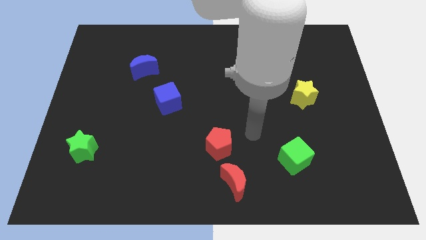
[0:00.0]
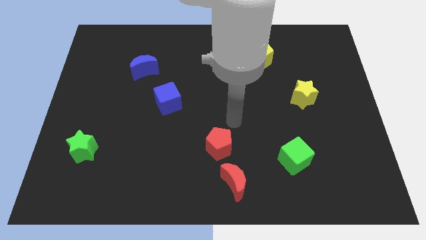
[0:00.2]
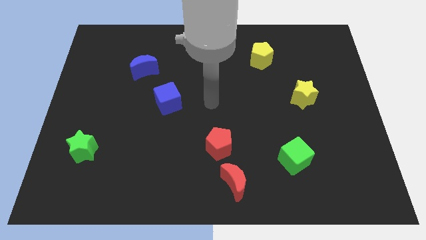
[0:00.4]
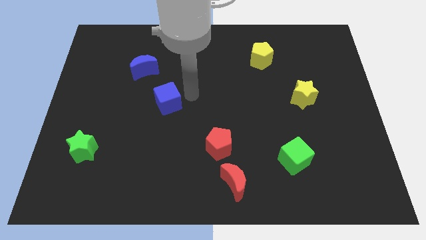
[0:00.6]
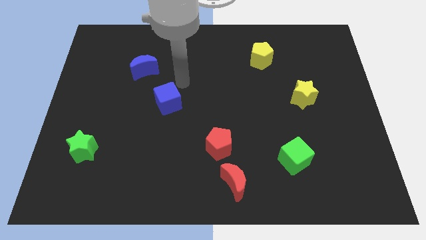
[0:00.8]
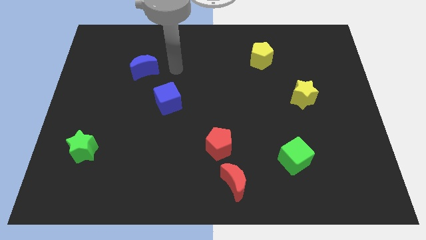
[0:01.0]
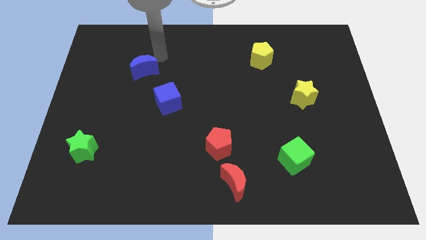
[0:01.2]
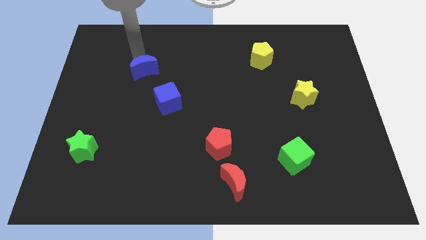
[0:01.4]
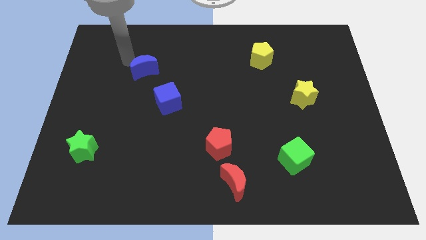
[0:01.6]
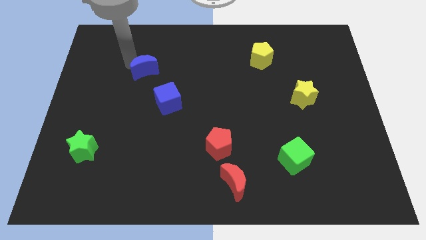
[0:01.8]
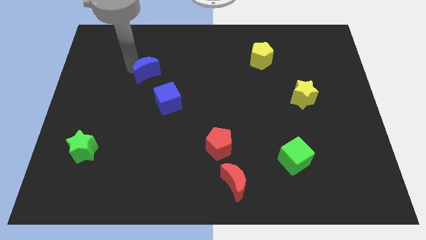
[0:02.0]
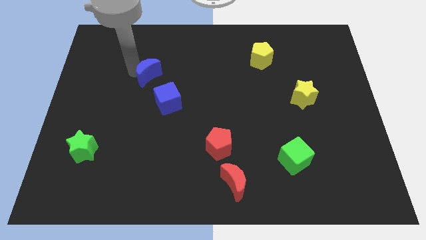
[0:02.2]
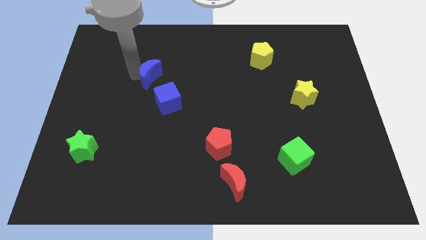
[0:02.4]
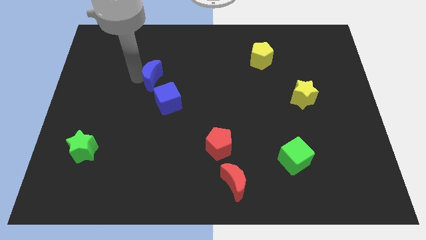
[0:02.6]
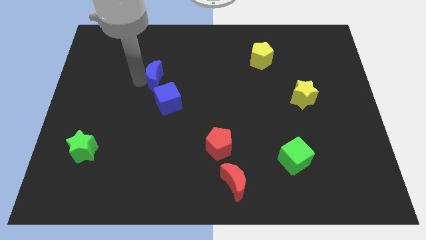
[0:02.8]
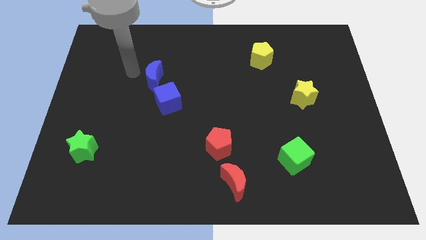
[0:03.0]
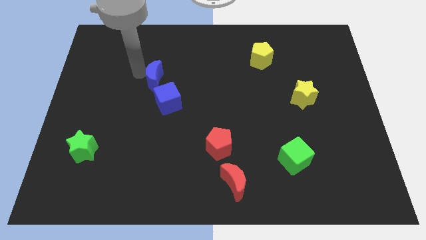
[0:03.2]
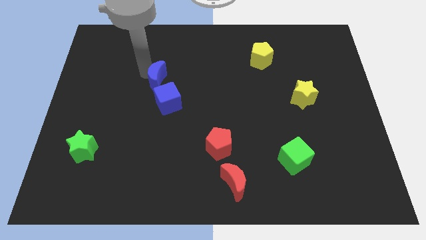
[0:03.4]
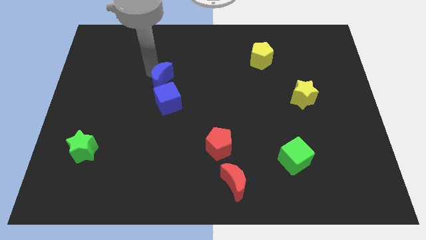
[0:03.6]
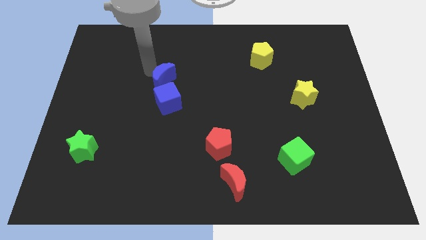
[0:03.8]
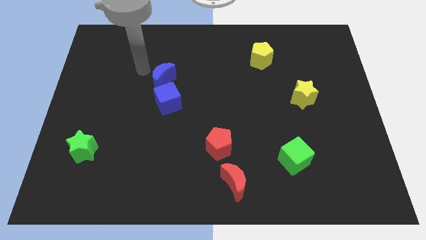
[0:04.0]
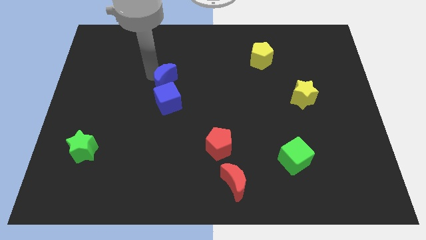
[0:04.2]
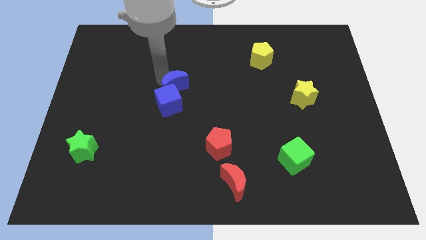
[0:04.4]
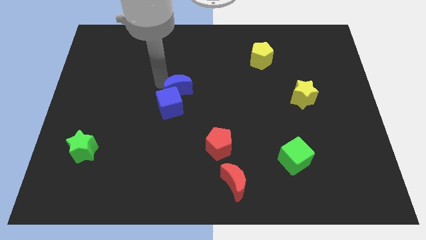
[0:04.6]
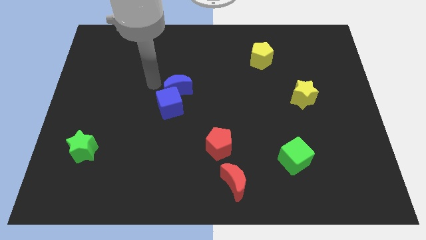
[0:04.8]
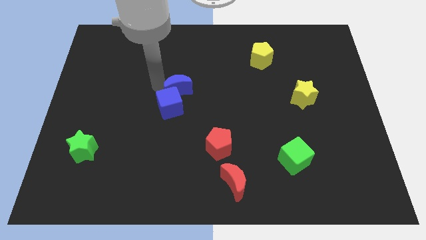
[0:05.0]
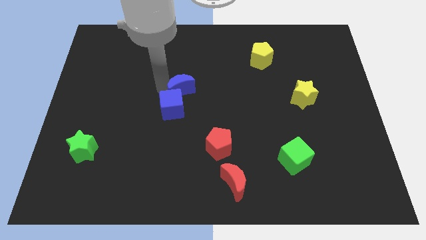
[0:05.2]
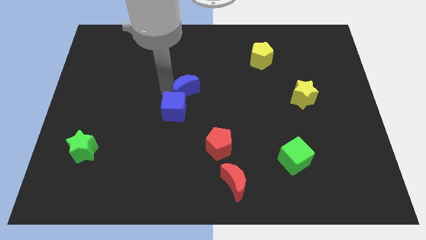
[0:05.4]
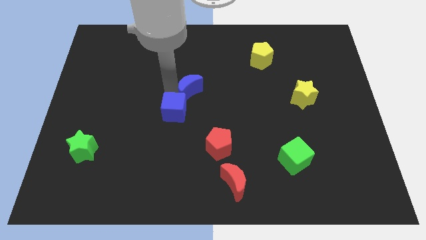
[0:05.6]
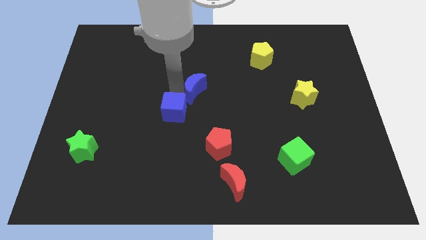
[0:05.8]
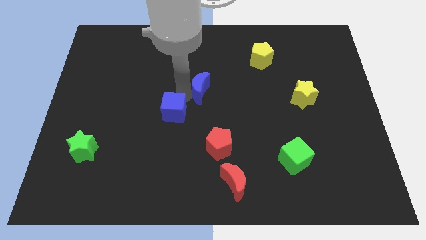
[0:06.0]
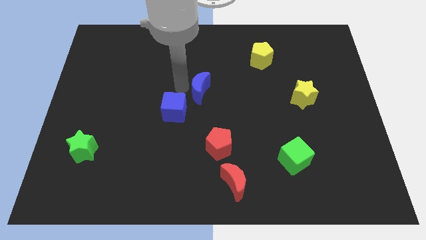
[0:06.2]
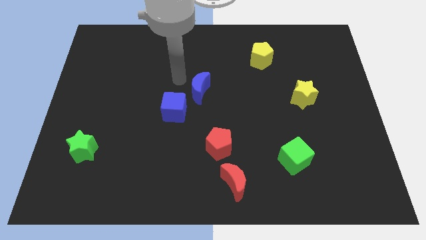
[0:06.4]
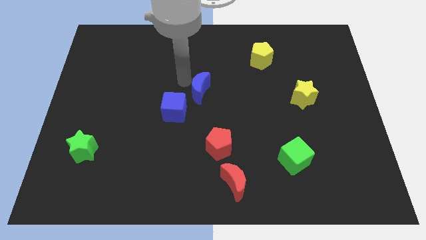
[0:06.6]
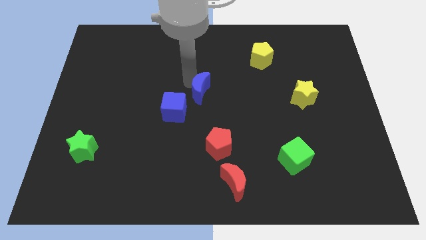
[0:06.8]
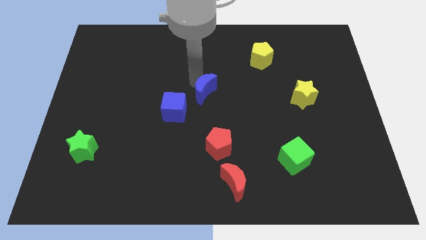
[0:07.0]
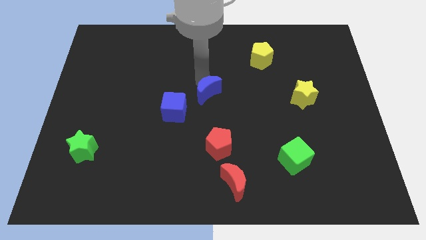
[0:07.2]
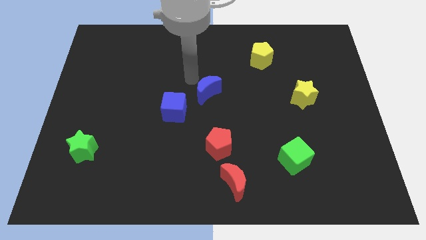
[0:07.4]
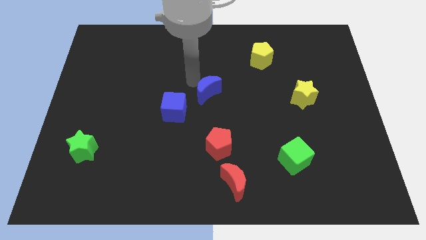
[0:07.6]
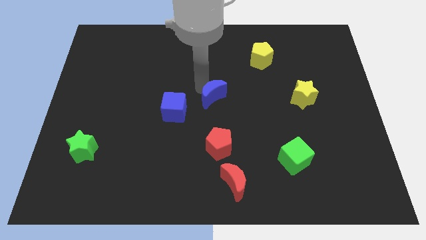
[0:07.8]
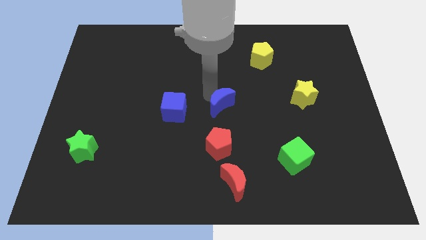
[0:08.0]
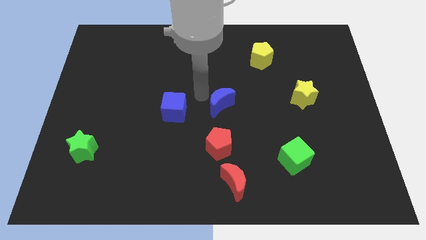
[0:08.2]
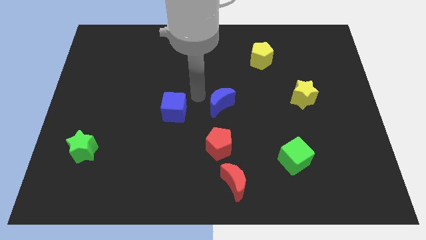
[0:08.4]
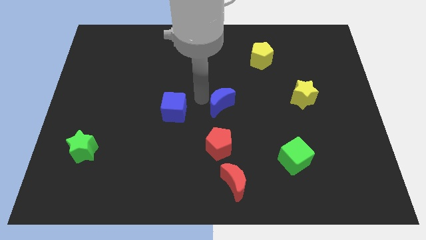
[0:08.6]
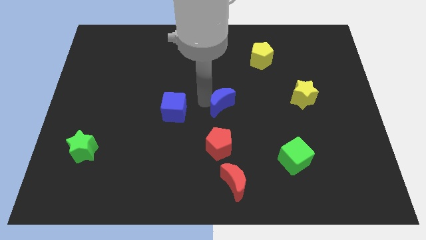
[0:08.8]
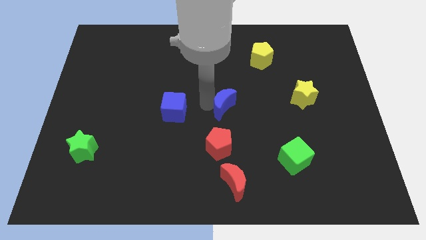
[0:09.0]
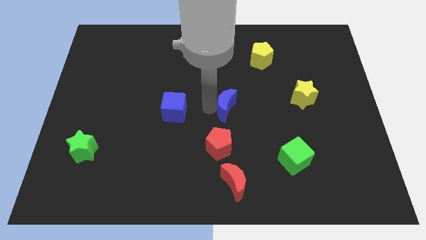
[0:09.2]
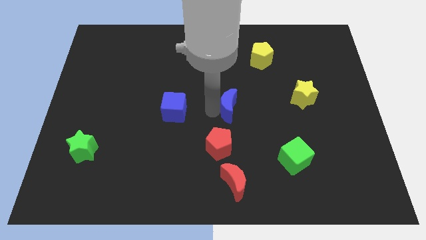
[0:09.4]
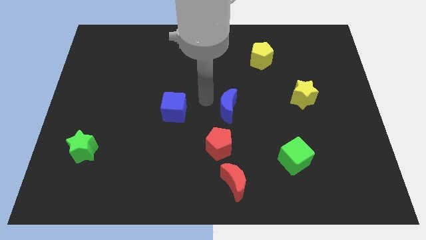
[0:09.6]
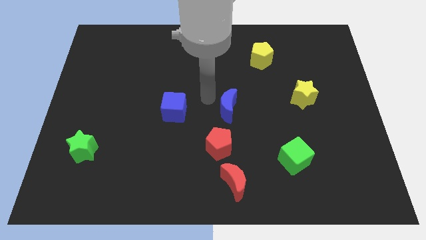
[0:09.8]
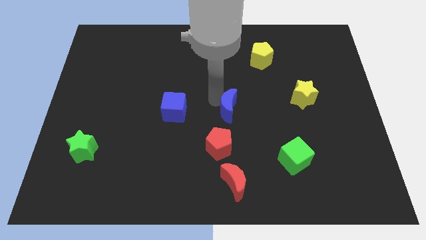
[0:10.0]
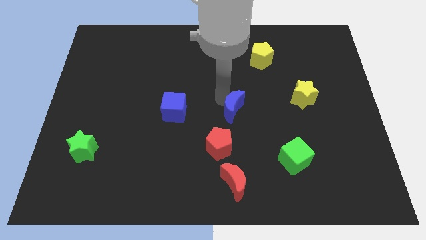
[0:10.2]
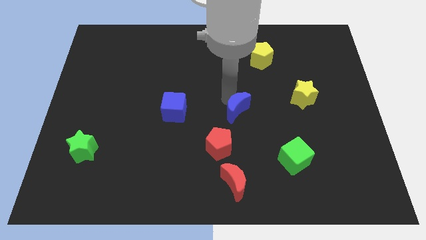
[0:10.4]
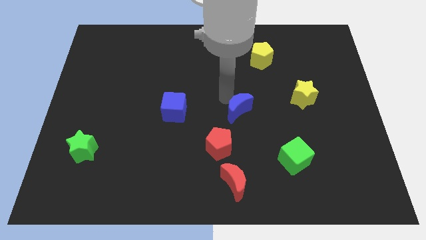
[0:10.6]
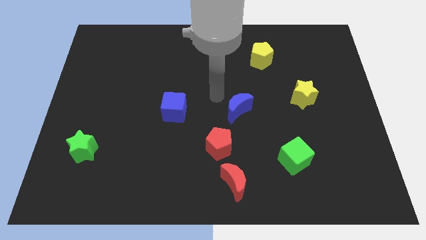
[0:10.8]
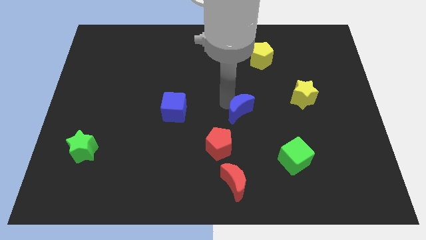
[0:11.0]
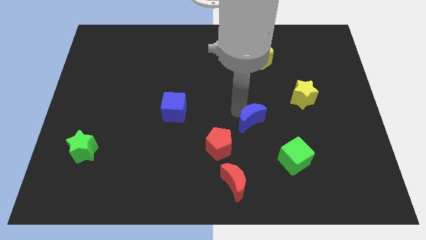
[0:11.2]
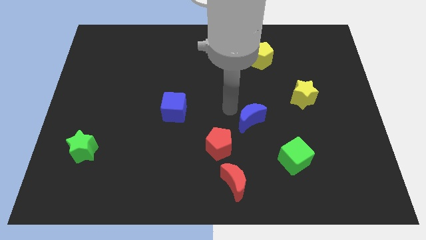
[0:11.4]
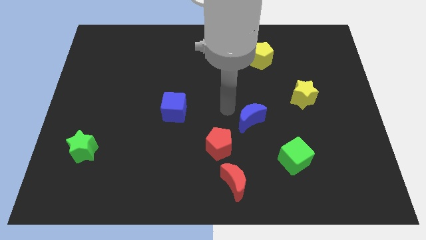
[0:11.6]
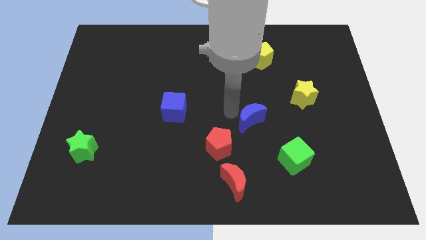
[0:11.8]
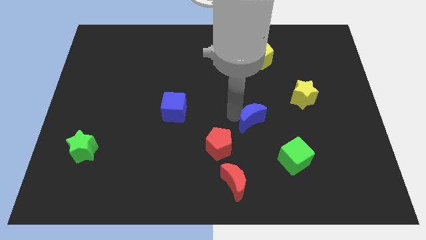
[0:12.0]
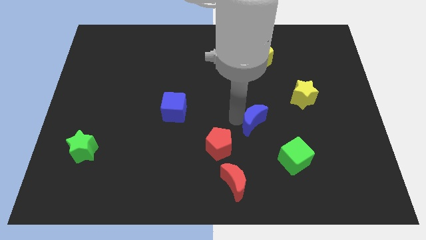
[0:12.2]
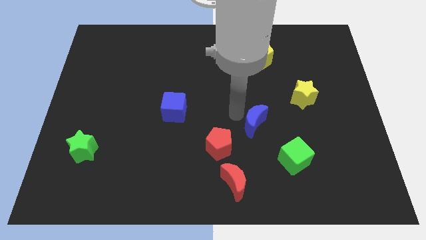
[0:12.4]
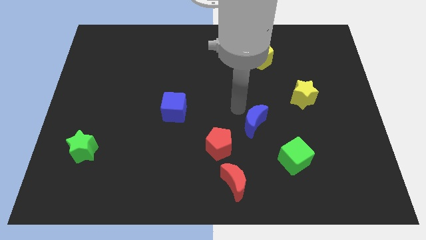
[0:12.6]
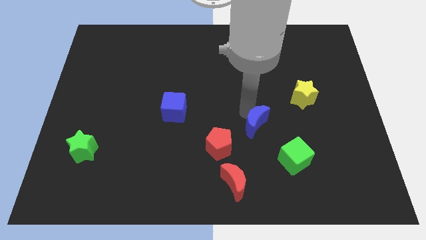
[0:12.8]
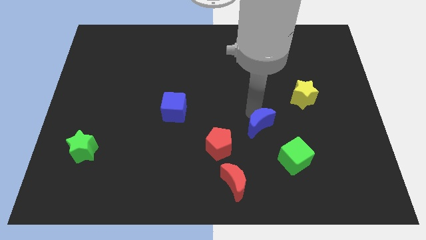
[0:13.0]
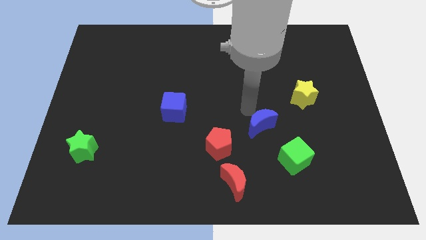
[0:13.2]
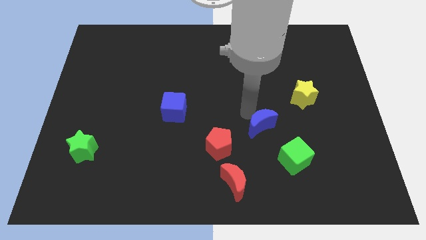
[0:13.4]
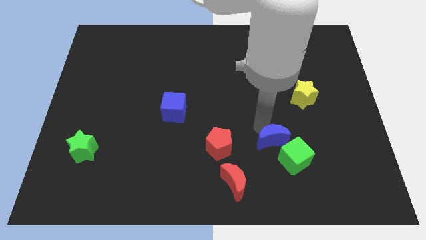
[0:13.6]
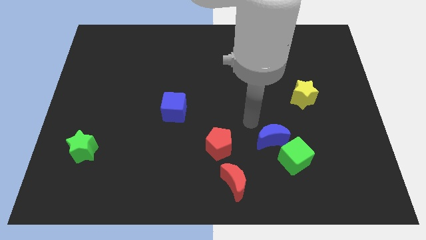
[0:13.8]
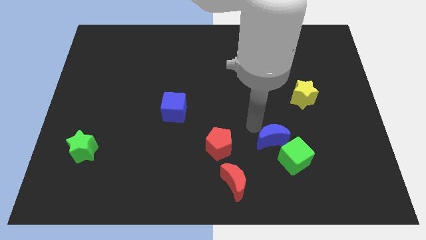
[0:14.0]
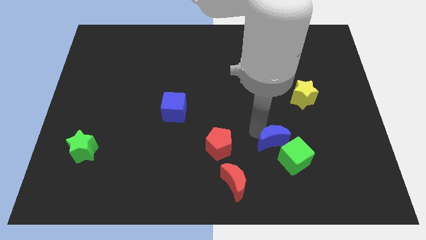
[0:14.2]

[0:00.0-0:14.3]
put the blue moon towards the green cube
